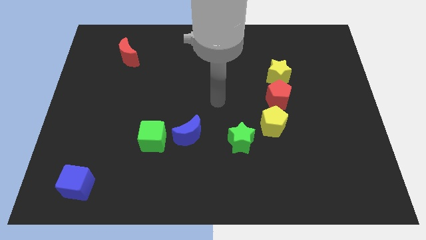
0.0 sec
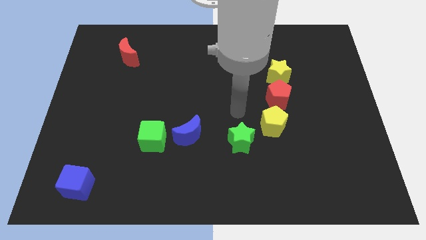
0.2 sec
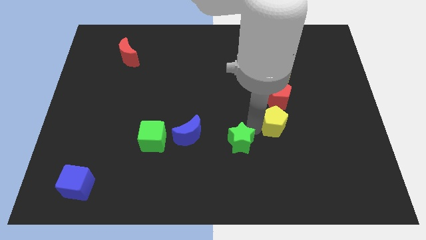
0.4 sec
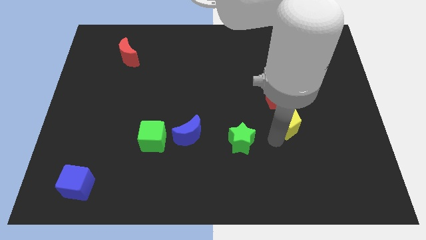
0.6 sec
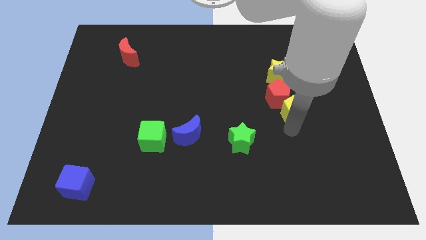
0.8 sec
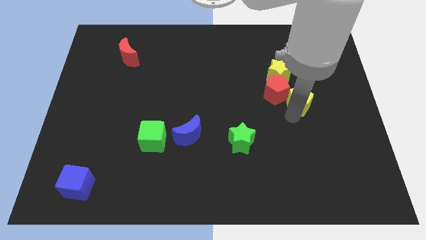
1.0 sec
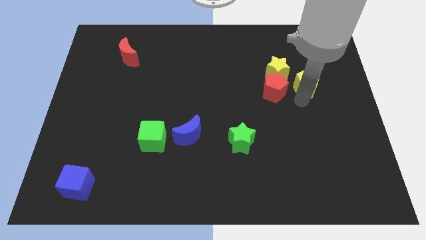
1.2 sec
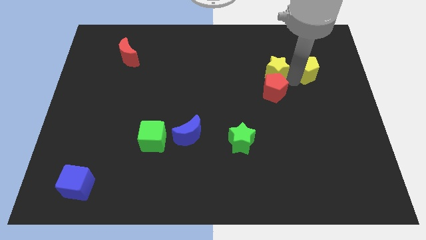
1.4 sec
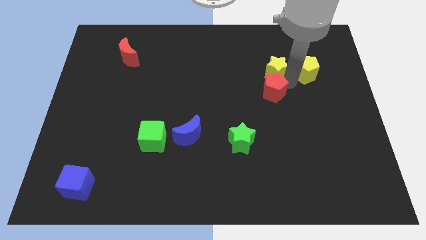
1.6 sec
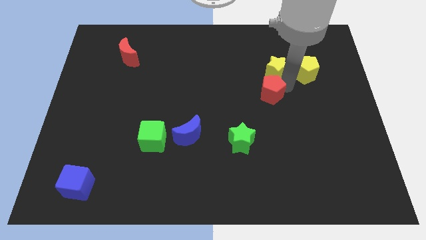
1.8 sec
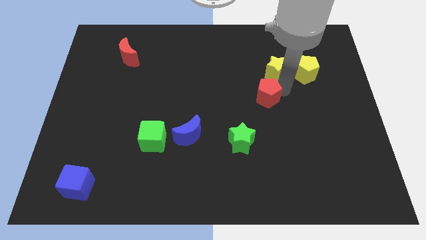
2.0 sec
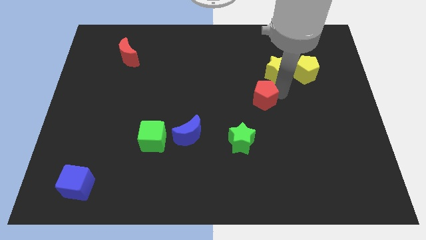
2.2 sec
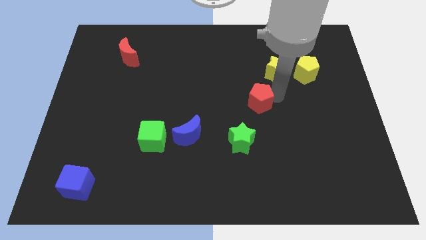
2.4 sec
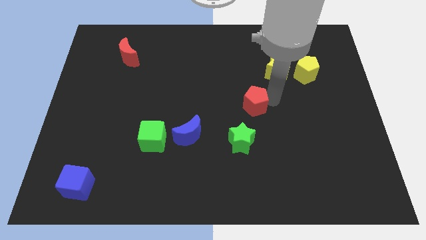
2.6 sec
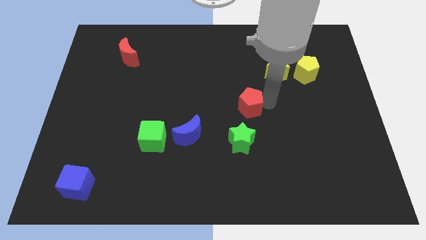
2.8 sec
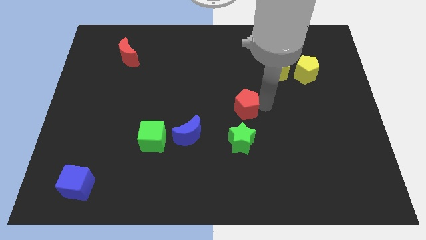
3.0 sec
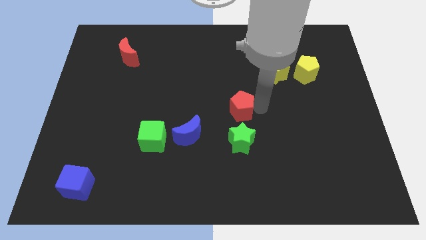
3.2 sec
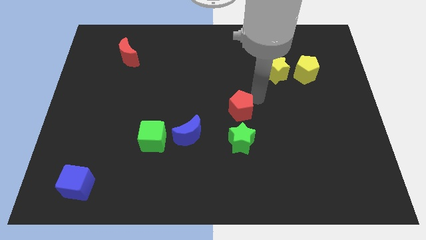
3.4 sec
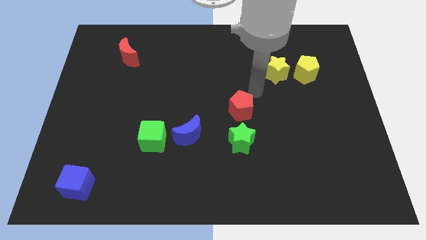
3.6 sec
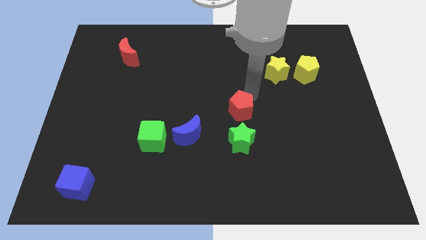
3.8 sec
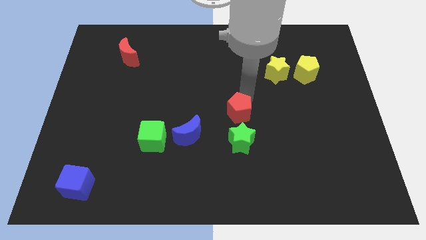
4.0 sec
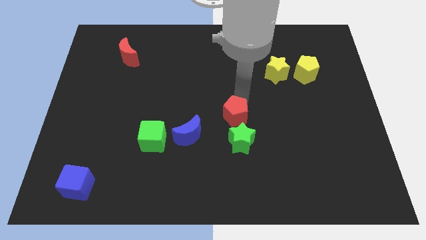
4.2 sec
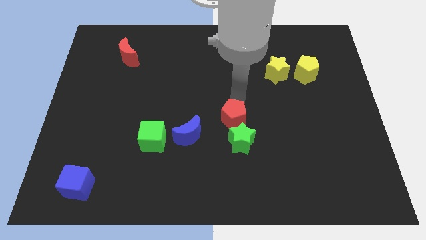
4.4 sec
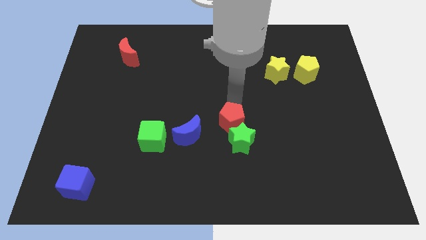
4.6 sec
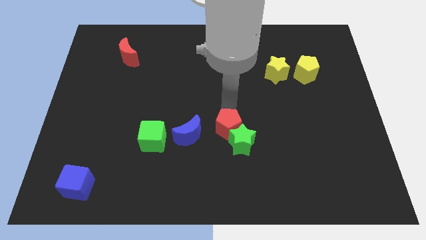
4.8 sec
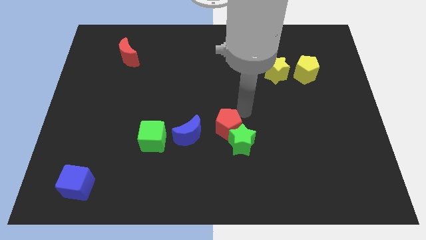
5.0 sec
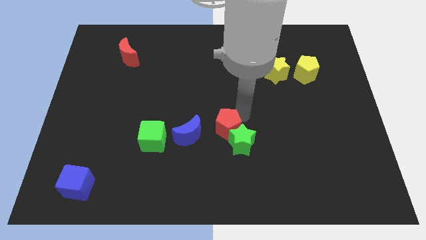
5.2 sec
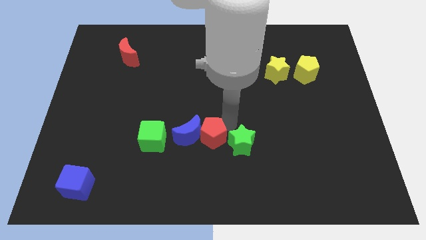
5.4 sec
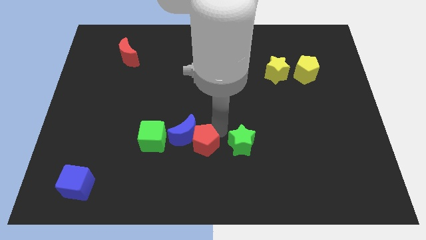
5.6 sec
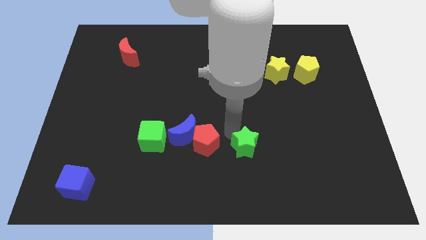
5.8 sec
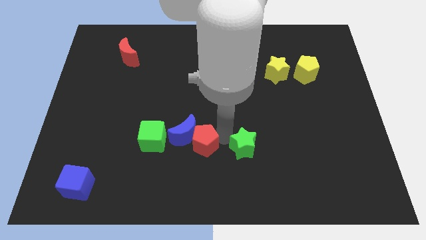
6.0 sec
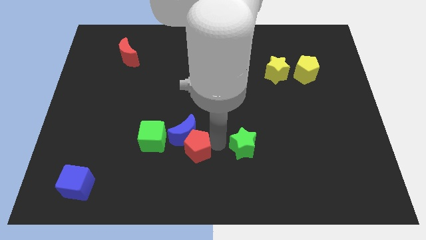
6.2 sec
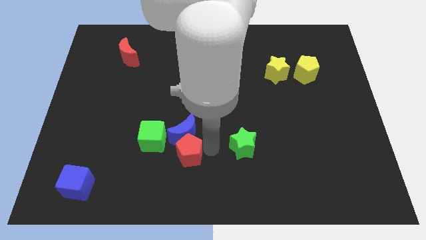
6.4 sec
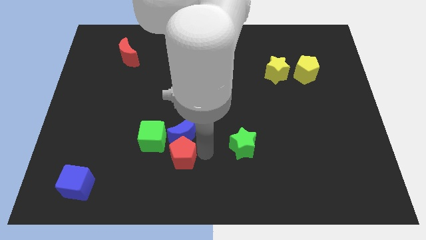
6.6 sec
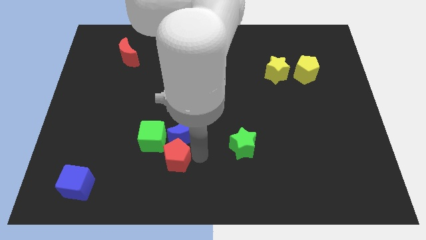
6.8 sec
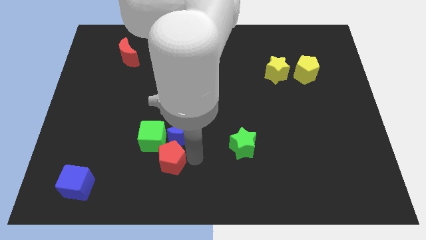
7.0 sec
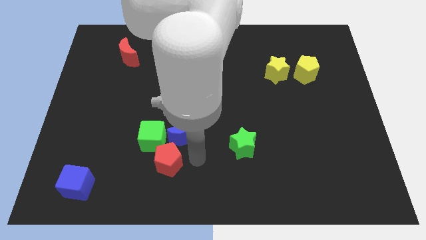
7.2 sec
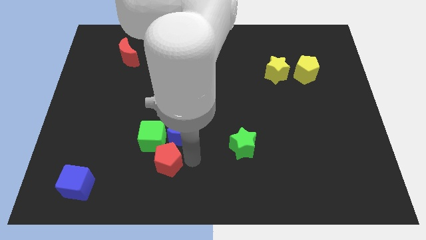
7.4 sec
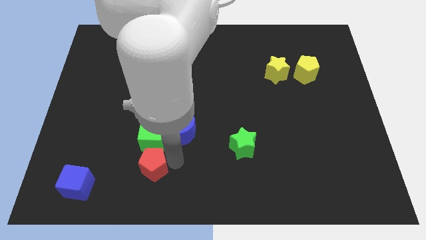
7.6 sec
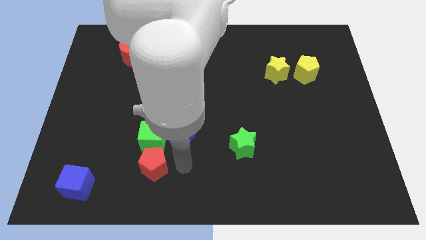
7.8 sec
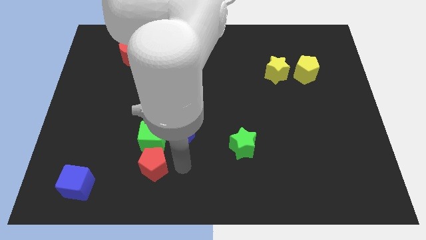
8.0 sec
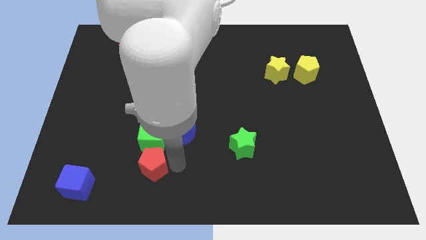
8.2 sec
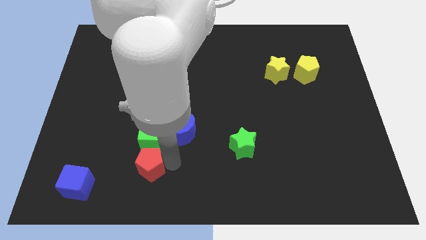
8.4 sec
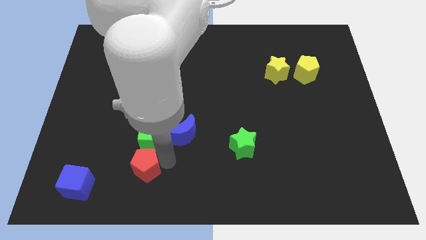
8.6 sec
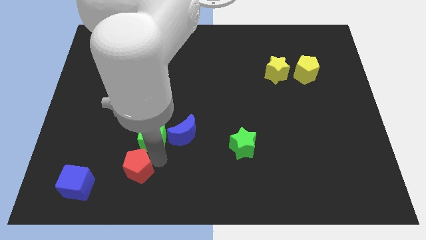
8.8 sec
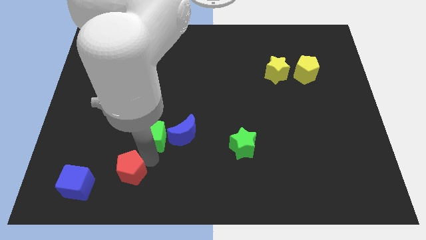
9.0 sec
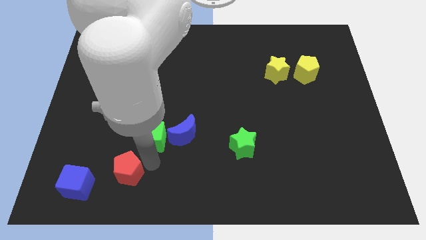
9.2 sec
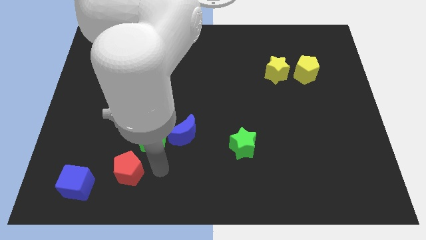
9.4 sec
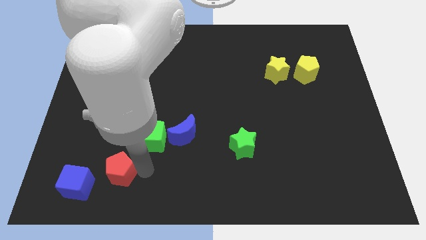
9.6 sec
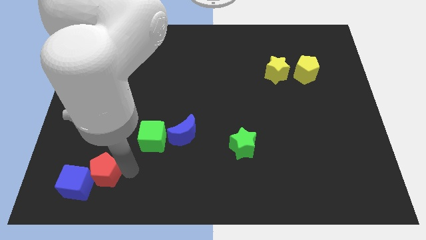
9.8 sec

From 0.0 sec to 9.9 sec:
move the red pentagon to the blue cube

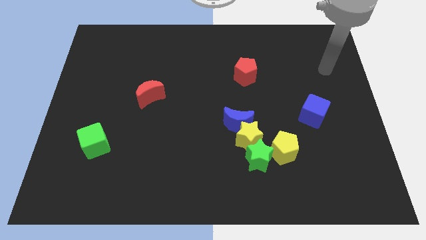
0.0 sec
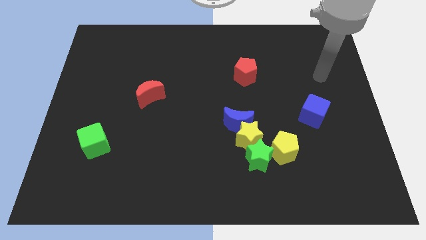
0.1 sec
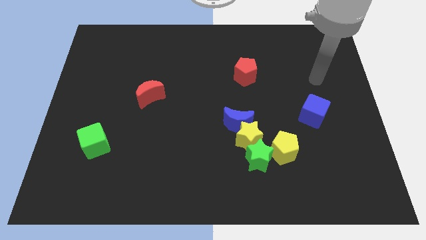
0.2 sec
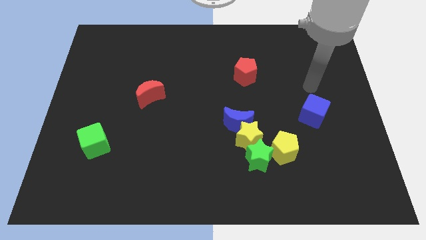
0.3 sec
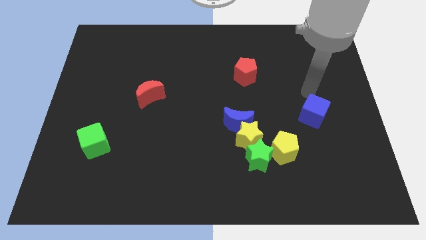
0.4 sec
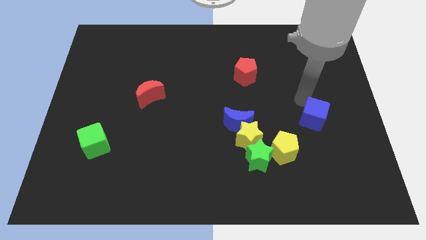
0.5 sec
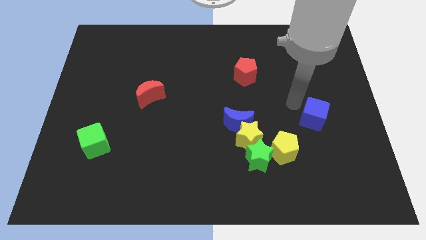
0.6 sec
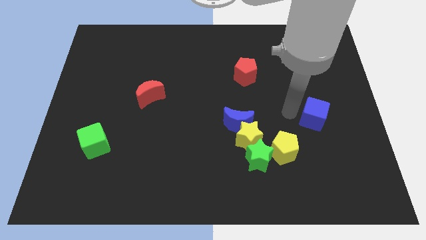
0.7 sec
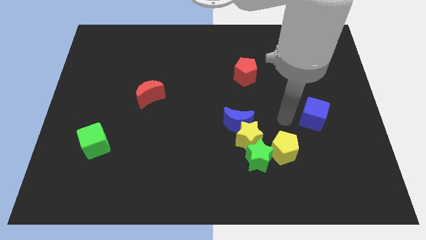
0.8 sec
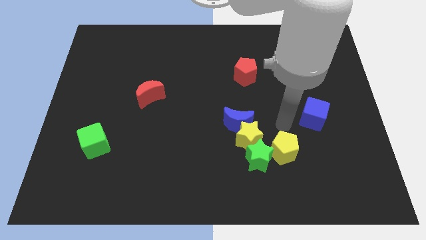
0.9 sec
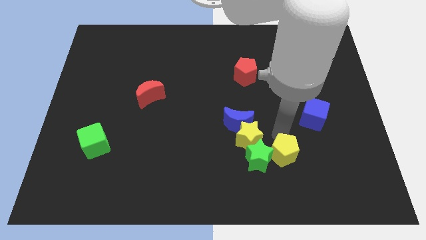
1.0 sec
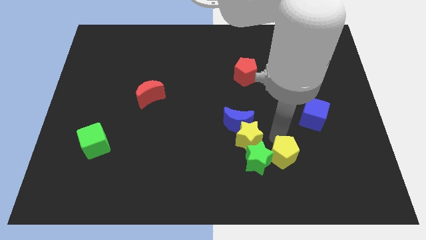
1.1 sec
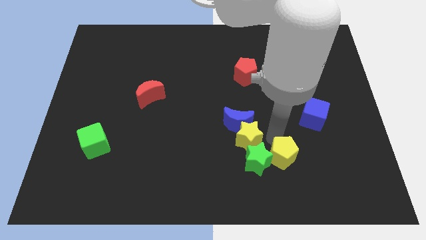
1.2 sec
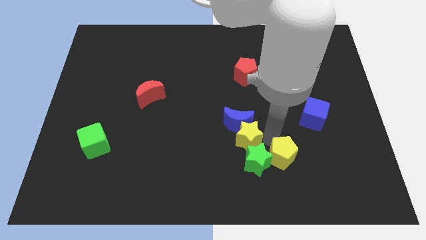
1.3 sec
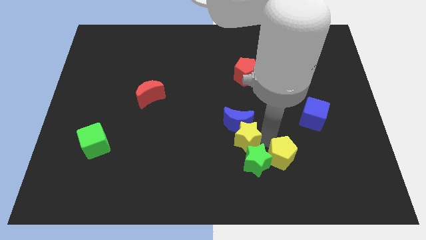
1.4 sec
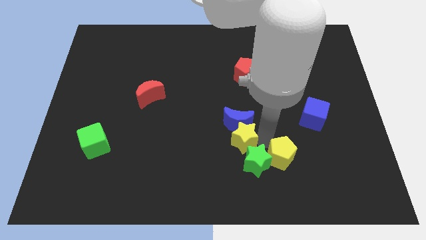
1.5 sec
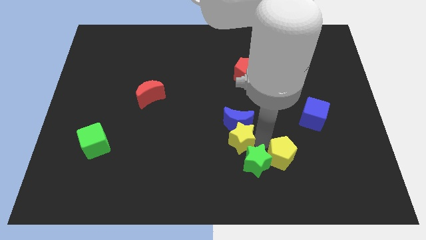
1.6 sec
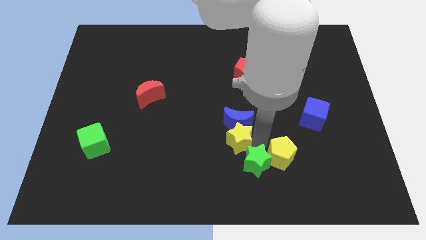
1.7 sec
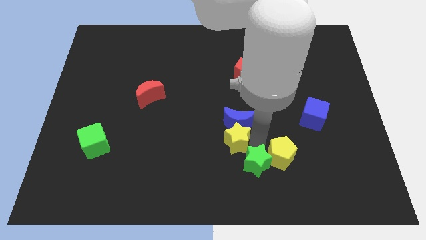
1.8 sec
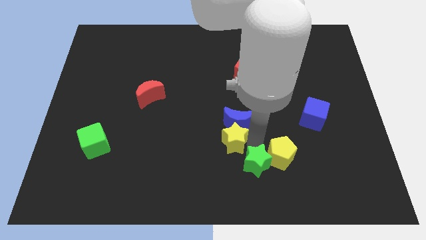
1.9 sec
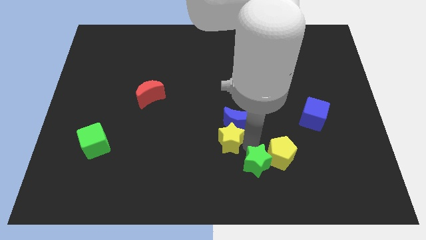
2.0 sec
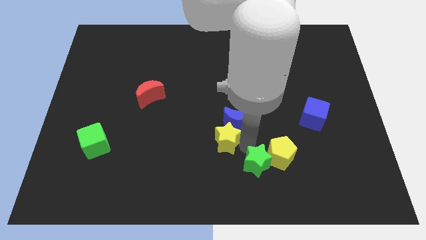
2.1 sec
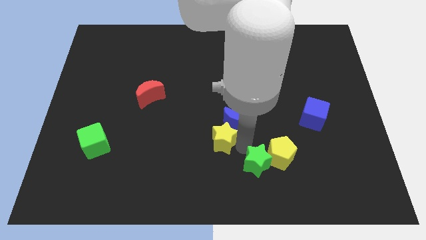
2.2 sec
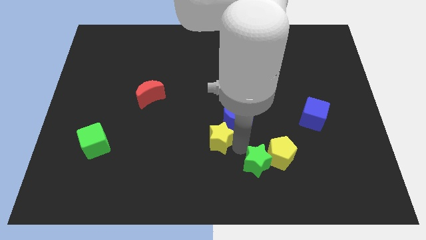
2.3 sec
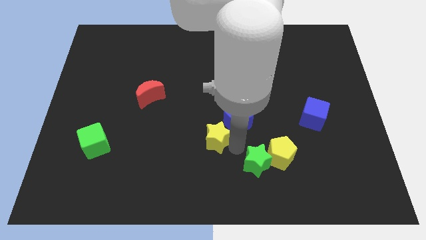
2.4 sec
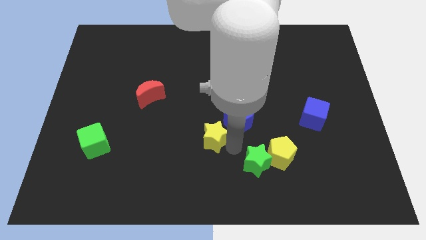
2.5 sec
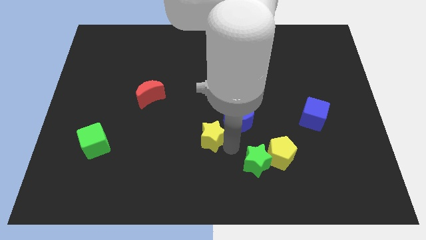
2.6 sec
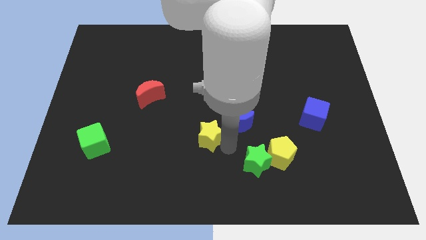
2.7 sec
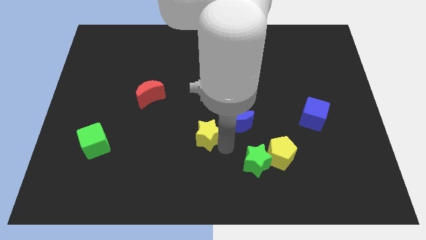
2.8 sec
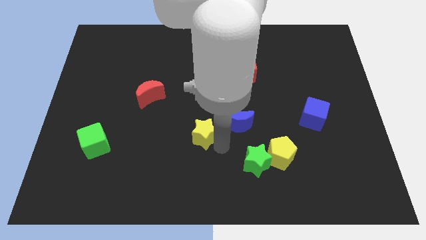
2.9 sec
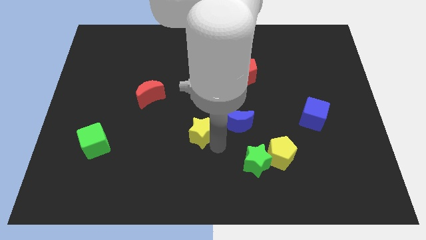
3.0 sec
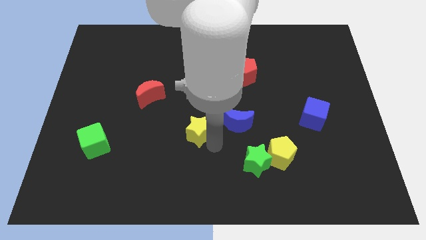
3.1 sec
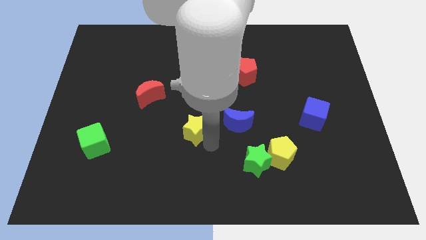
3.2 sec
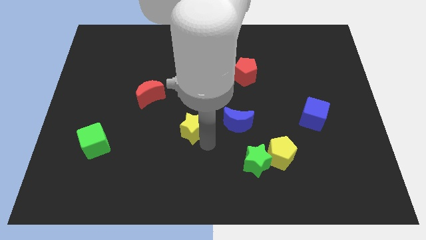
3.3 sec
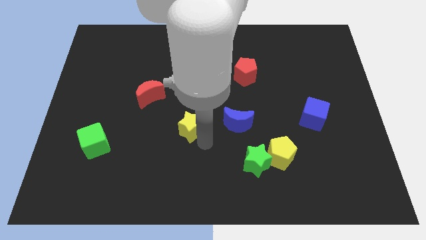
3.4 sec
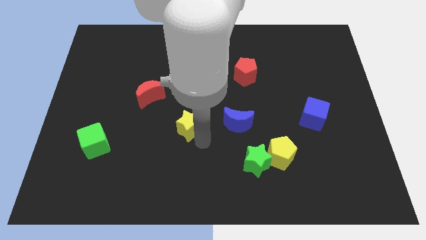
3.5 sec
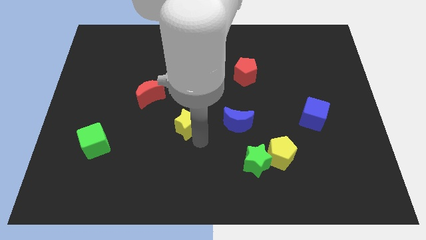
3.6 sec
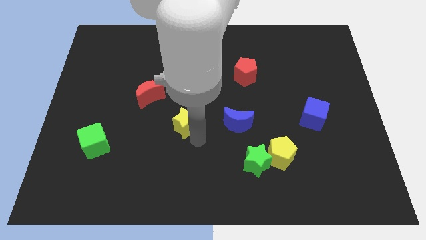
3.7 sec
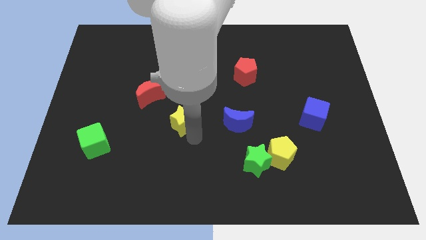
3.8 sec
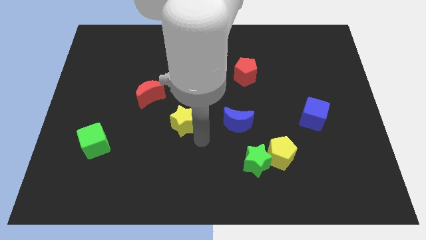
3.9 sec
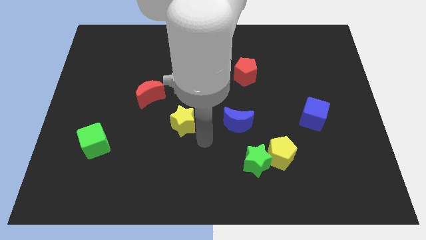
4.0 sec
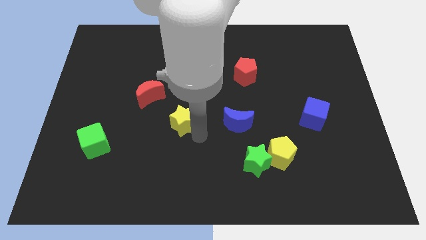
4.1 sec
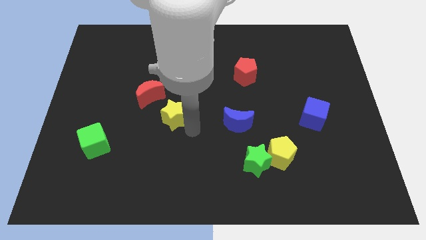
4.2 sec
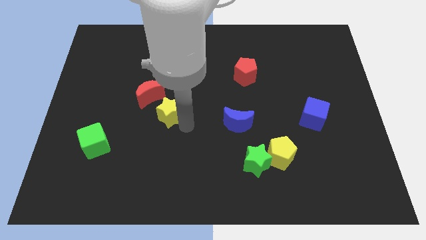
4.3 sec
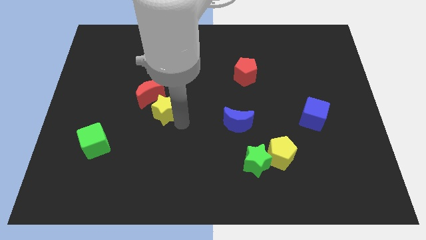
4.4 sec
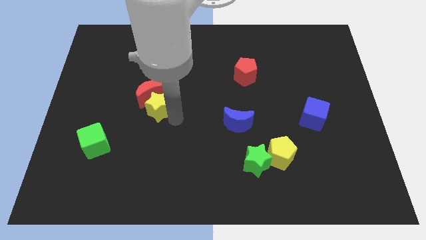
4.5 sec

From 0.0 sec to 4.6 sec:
move the yellow star to the red moon
